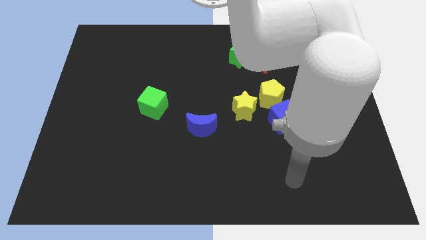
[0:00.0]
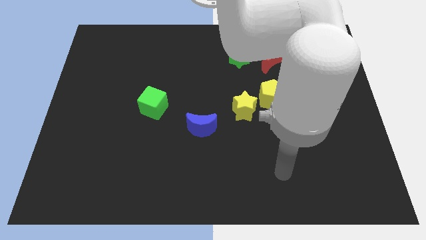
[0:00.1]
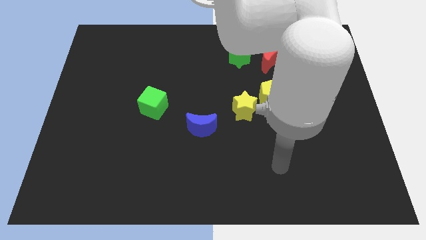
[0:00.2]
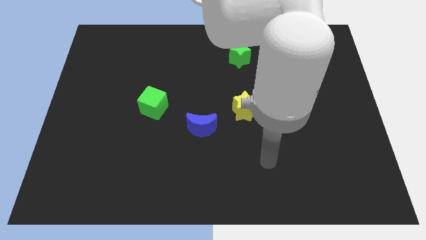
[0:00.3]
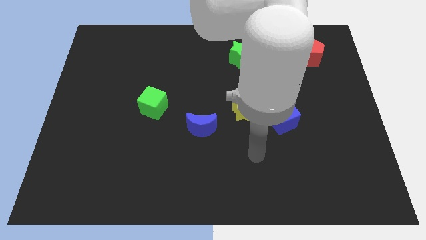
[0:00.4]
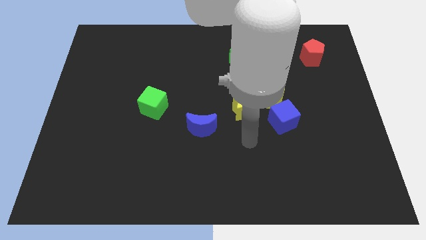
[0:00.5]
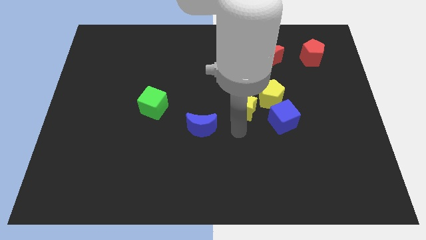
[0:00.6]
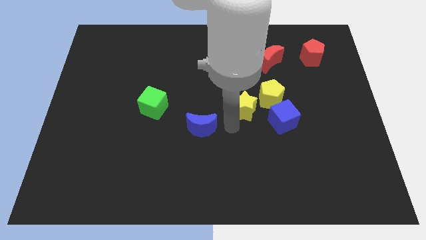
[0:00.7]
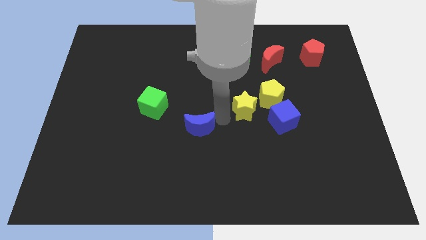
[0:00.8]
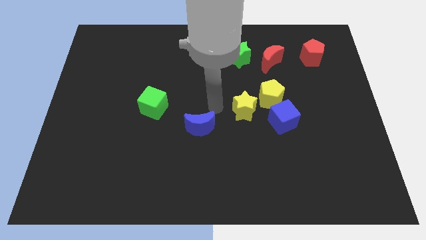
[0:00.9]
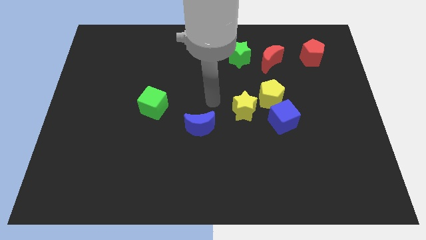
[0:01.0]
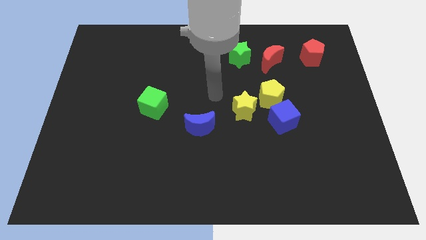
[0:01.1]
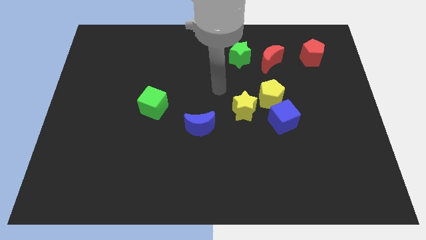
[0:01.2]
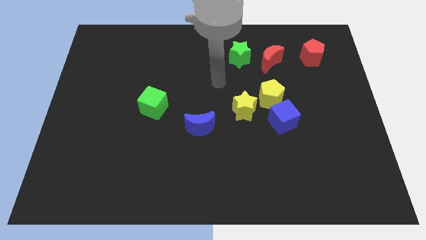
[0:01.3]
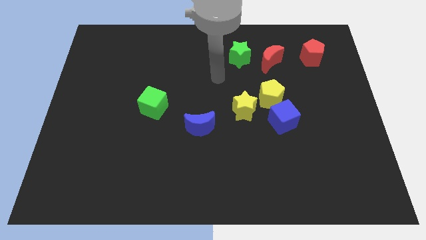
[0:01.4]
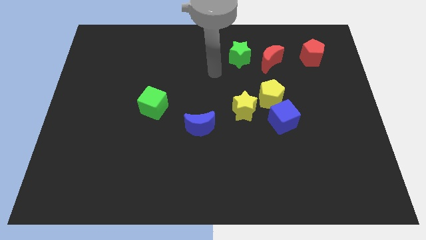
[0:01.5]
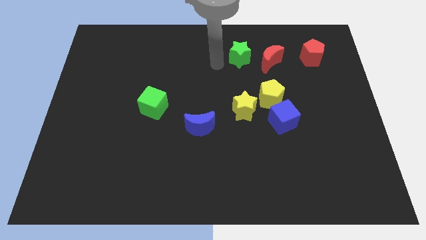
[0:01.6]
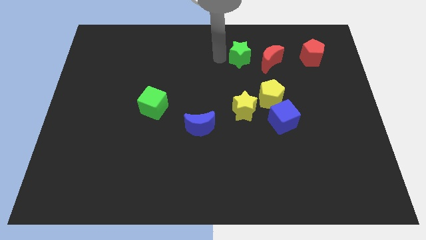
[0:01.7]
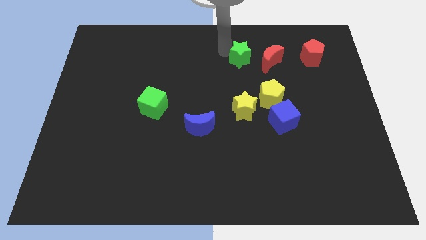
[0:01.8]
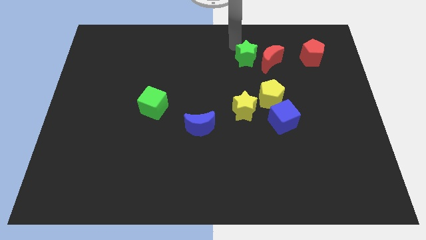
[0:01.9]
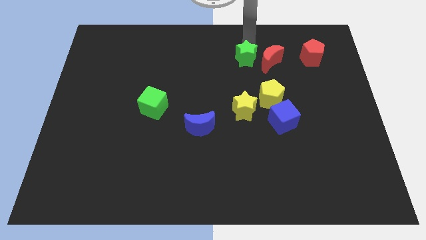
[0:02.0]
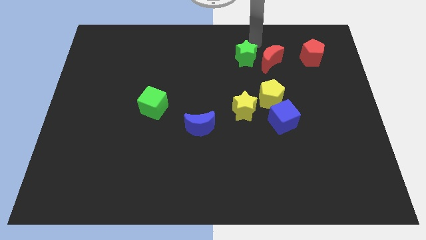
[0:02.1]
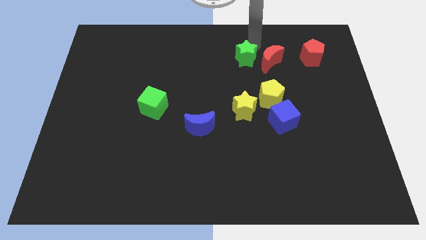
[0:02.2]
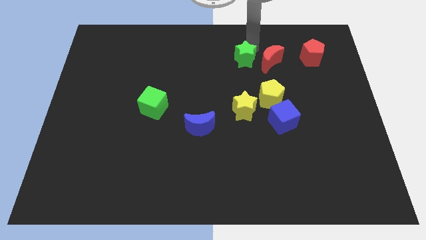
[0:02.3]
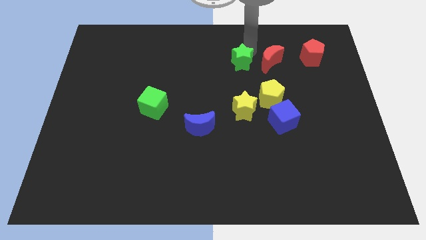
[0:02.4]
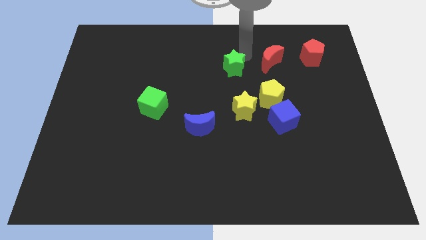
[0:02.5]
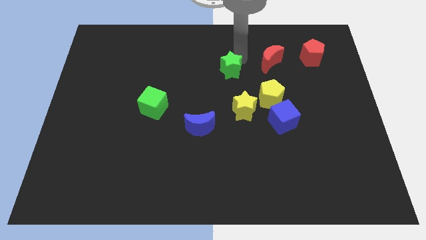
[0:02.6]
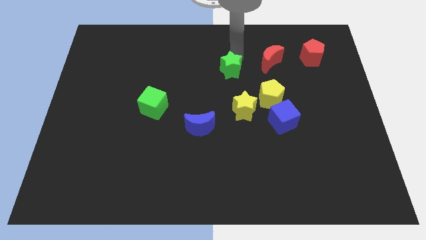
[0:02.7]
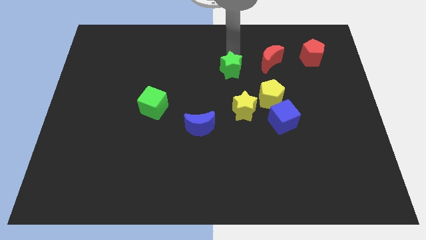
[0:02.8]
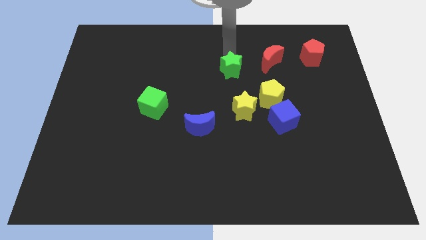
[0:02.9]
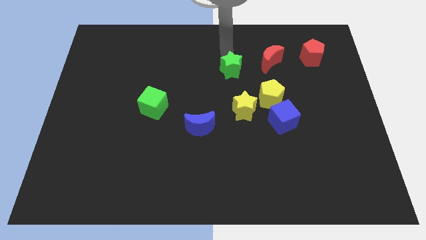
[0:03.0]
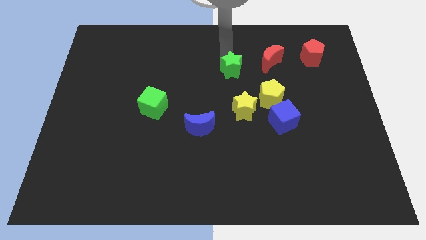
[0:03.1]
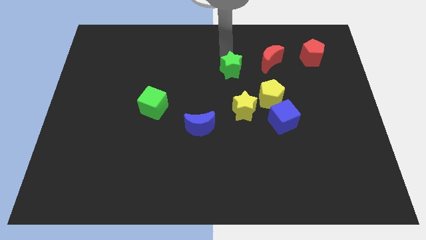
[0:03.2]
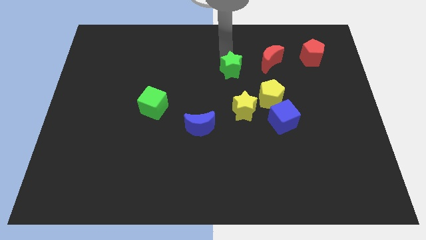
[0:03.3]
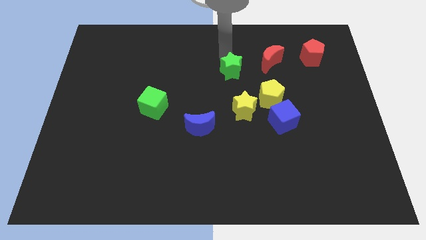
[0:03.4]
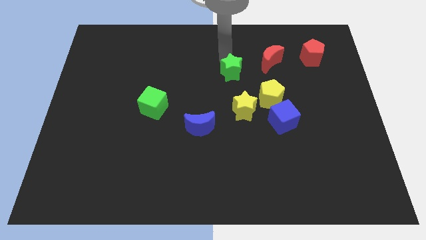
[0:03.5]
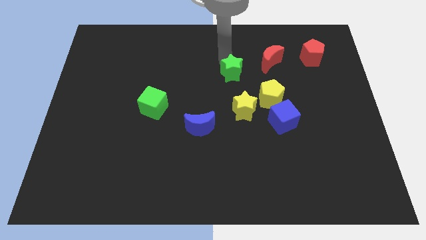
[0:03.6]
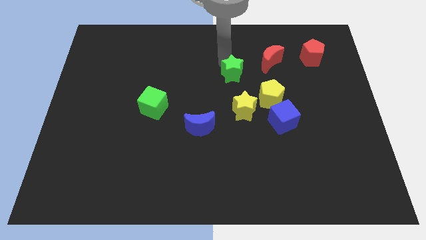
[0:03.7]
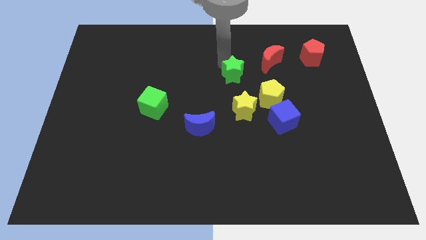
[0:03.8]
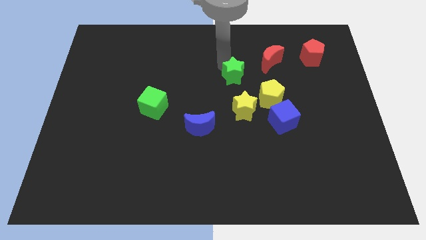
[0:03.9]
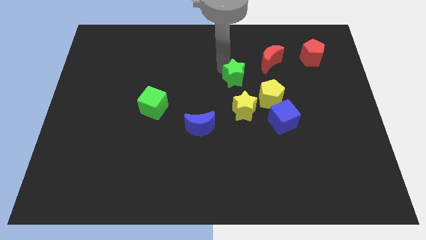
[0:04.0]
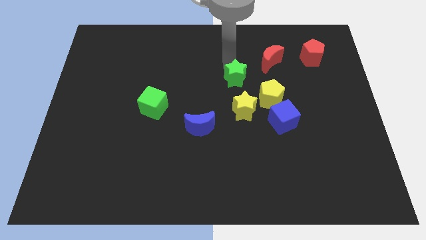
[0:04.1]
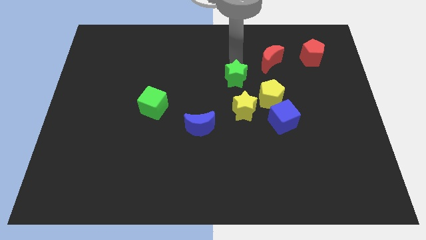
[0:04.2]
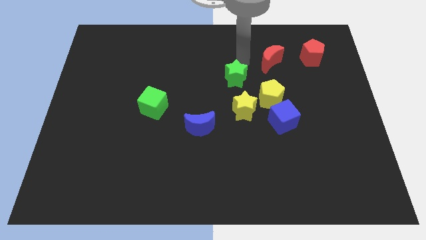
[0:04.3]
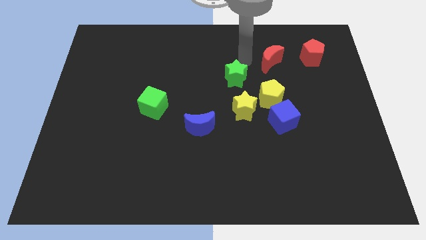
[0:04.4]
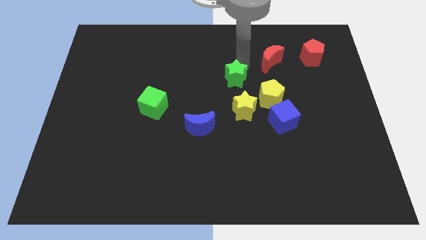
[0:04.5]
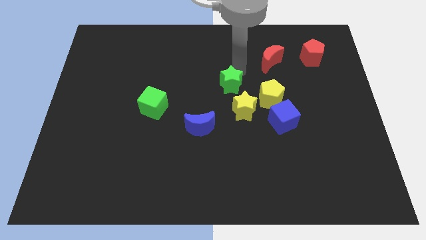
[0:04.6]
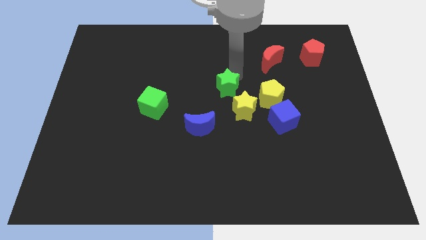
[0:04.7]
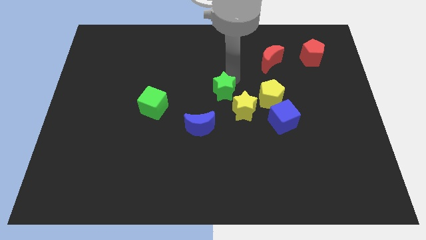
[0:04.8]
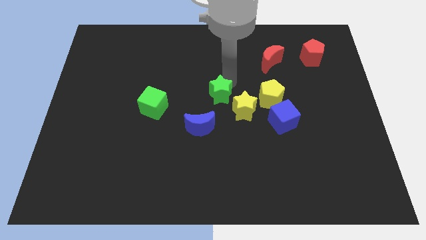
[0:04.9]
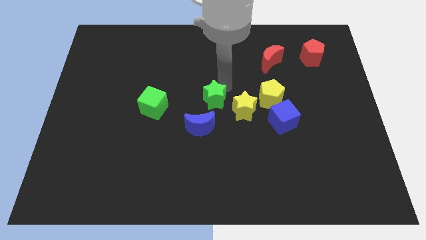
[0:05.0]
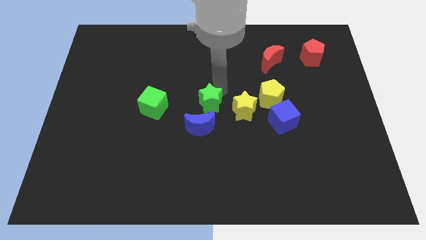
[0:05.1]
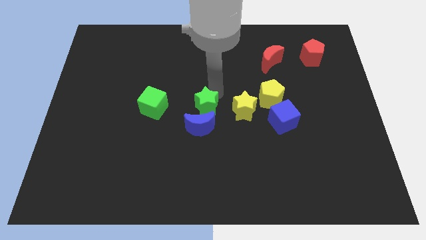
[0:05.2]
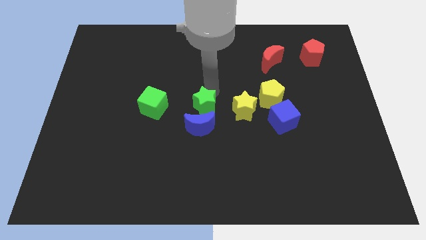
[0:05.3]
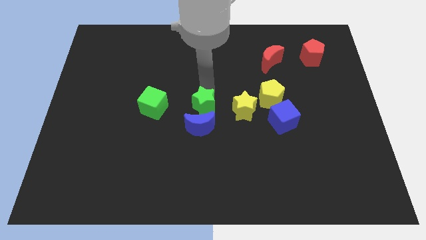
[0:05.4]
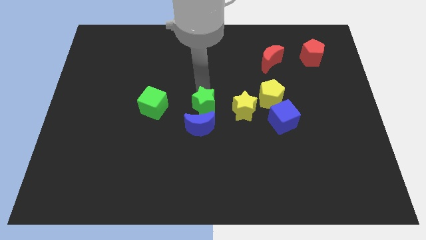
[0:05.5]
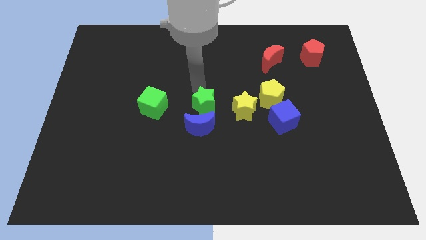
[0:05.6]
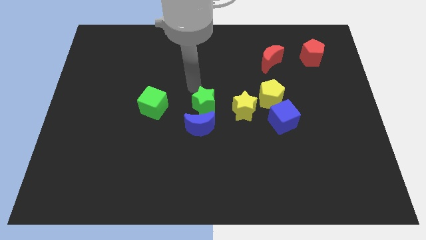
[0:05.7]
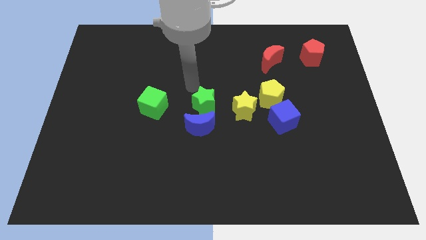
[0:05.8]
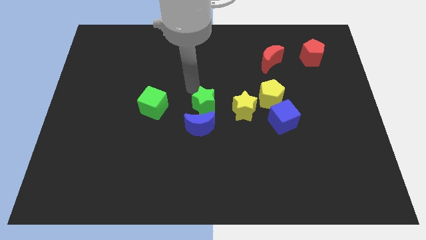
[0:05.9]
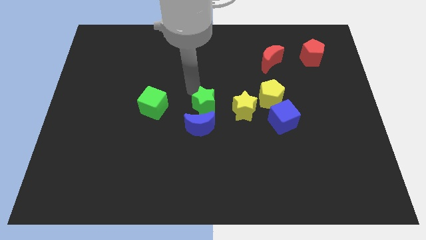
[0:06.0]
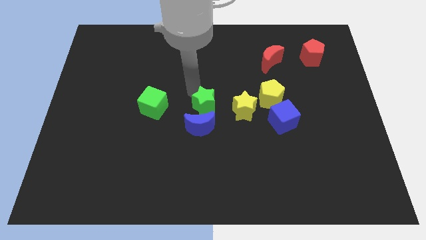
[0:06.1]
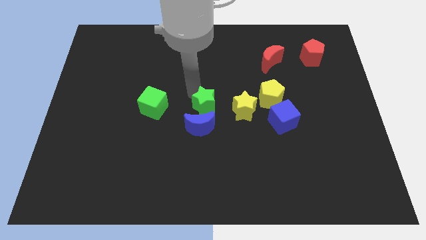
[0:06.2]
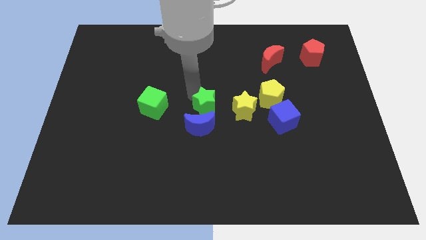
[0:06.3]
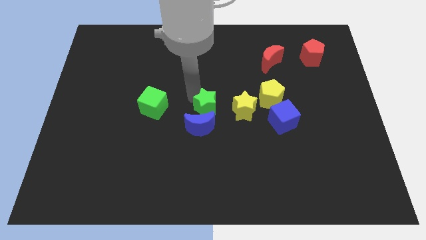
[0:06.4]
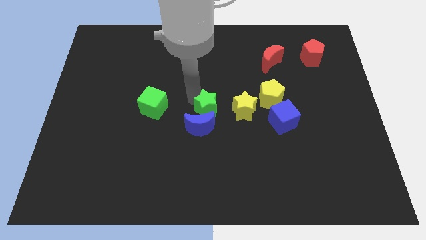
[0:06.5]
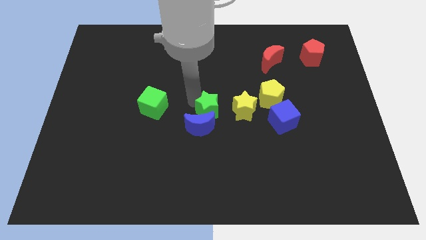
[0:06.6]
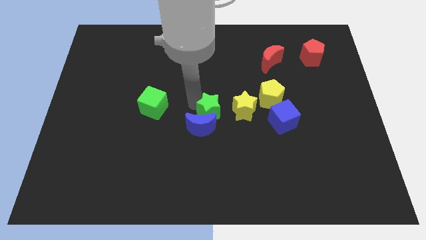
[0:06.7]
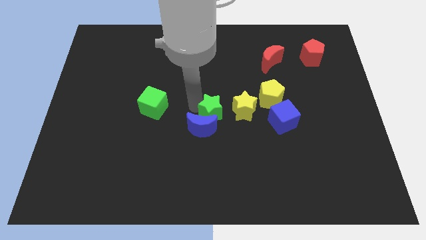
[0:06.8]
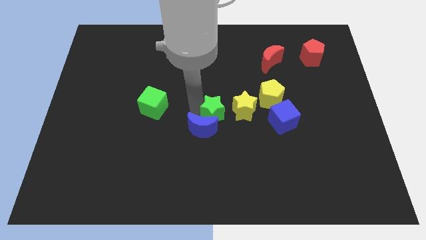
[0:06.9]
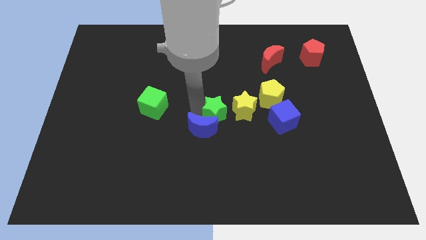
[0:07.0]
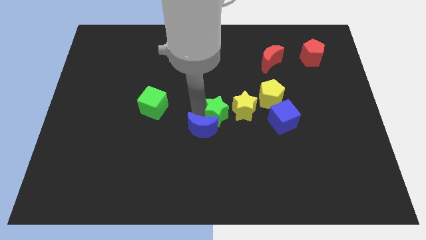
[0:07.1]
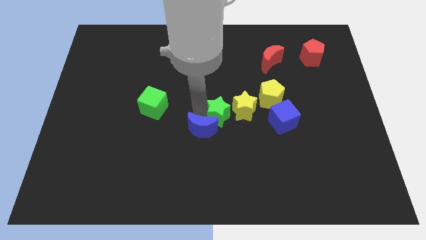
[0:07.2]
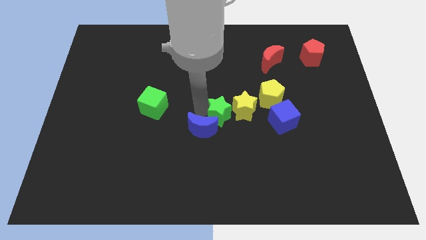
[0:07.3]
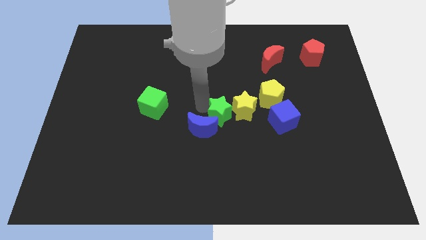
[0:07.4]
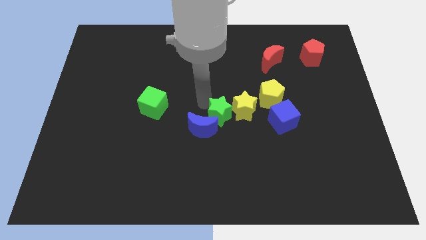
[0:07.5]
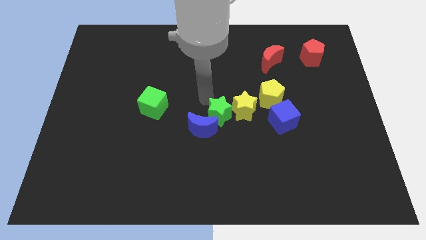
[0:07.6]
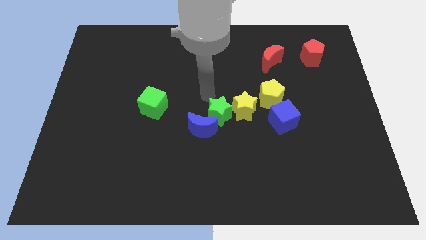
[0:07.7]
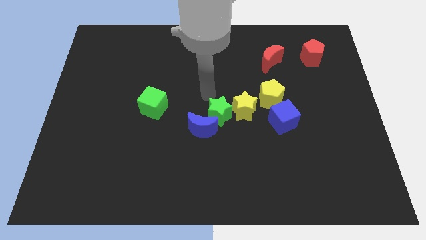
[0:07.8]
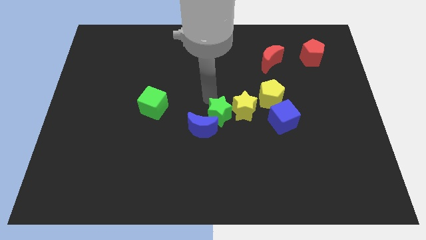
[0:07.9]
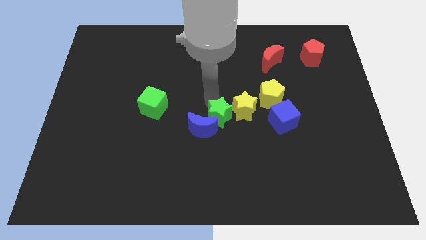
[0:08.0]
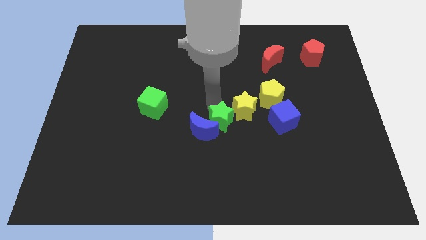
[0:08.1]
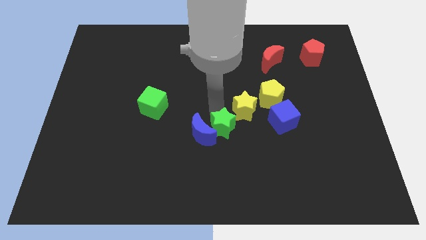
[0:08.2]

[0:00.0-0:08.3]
slide the green star down
